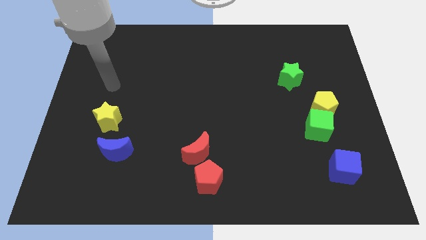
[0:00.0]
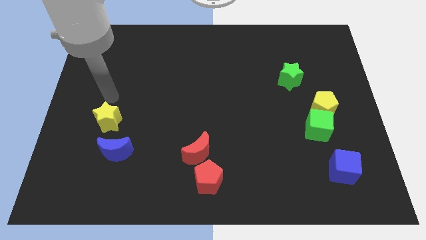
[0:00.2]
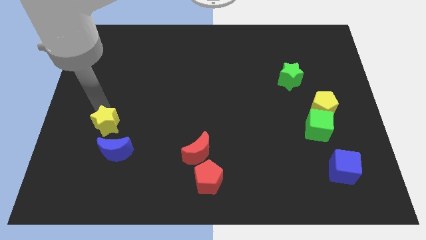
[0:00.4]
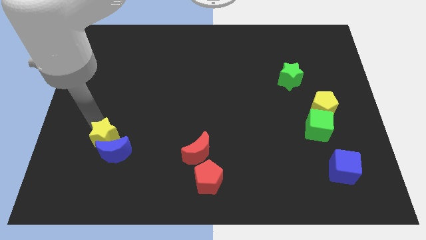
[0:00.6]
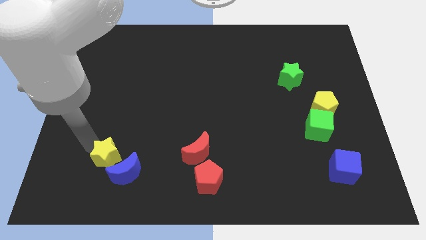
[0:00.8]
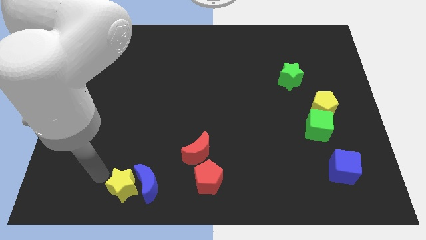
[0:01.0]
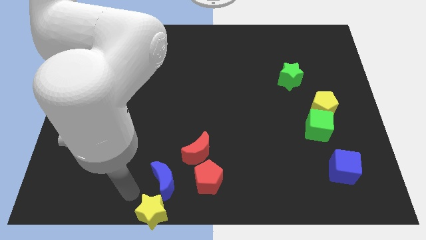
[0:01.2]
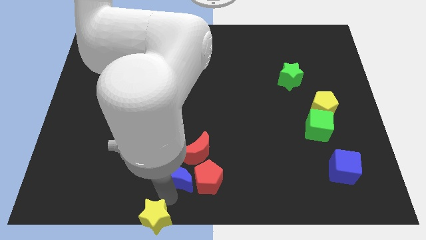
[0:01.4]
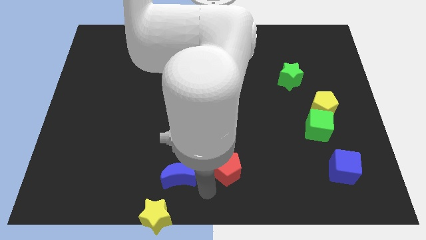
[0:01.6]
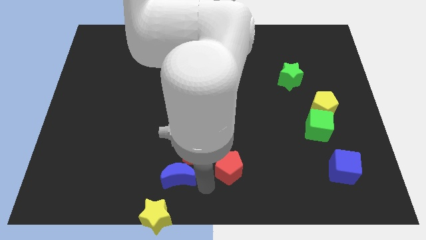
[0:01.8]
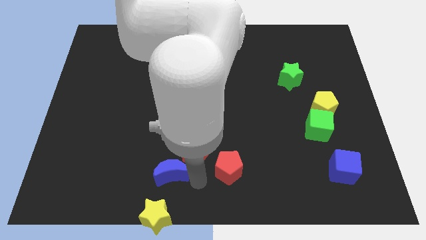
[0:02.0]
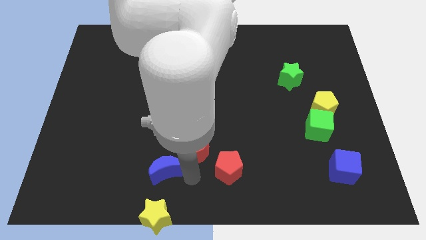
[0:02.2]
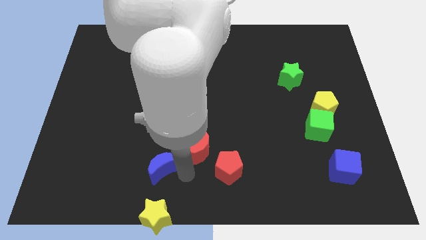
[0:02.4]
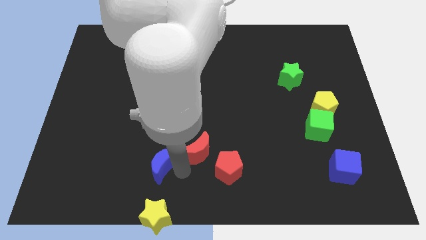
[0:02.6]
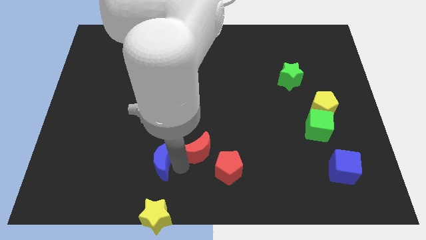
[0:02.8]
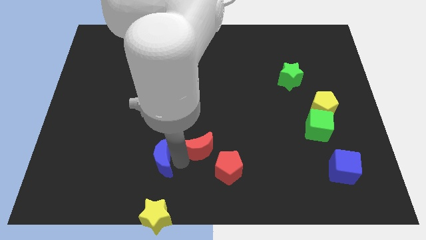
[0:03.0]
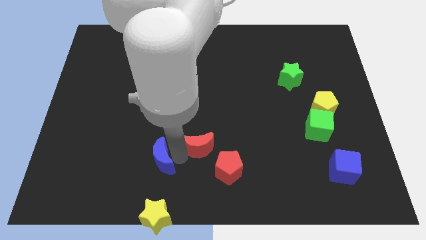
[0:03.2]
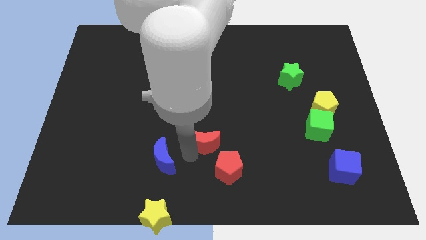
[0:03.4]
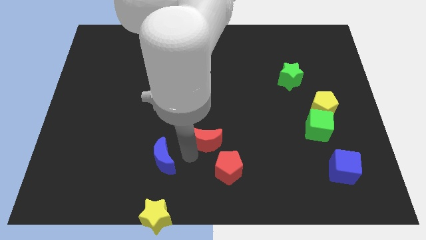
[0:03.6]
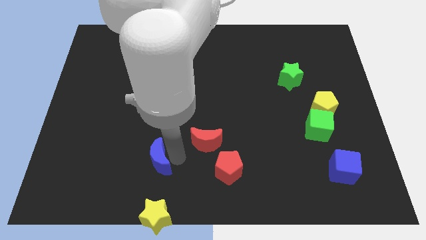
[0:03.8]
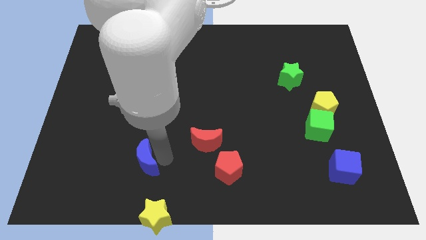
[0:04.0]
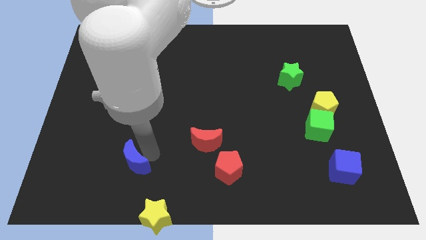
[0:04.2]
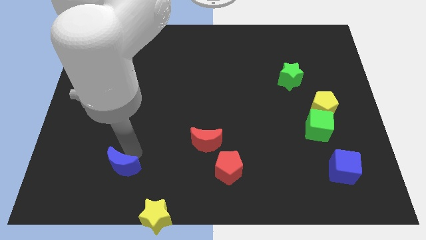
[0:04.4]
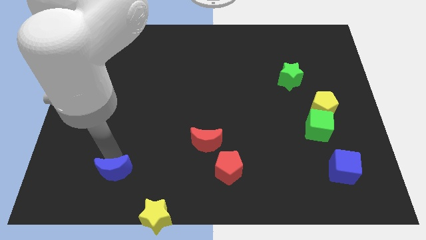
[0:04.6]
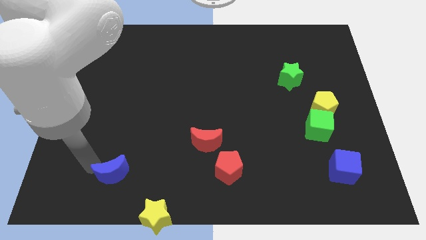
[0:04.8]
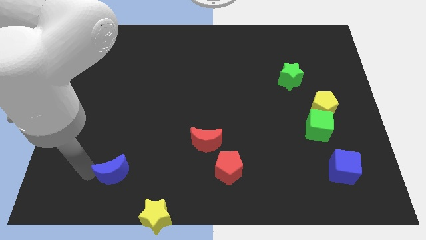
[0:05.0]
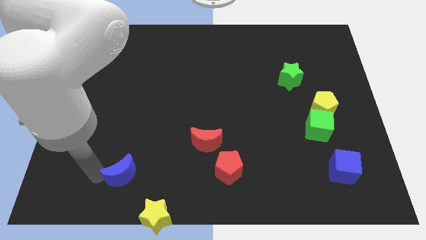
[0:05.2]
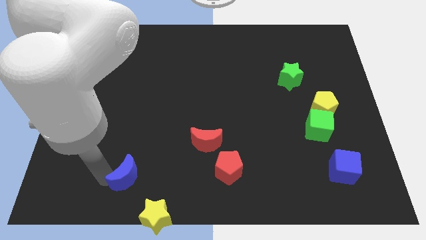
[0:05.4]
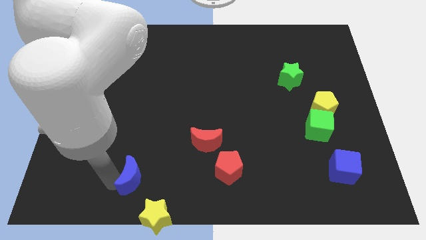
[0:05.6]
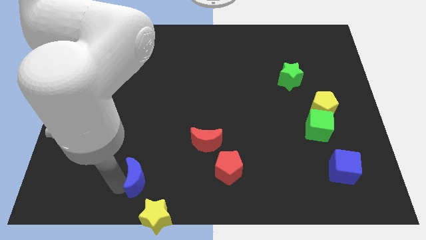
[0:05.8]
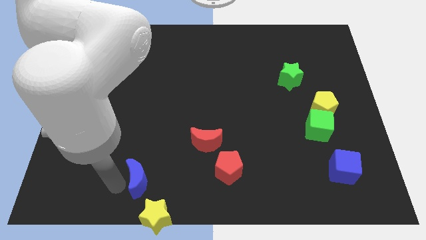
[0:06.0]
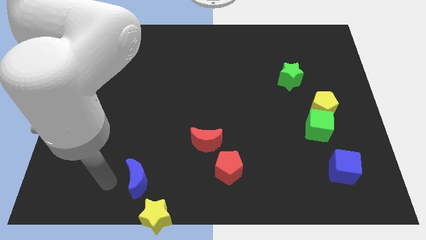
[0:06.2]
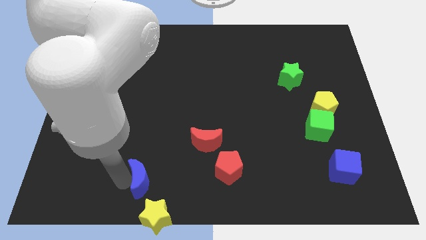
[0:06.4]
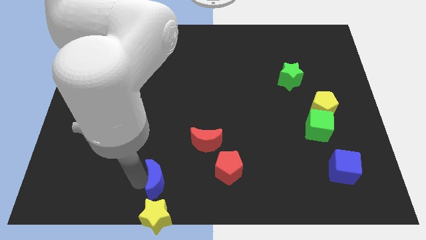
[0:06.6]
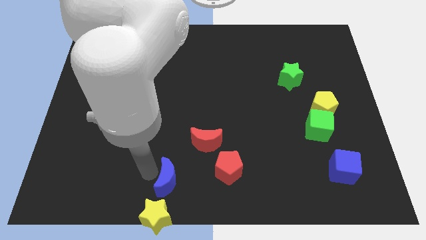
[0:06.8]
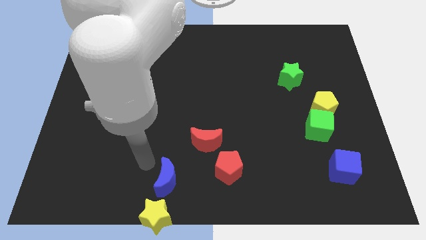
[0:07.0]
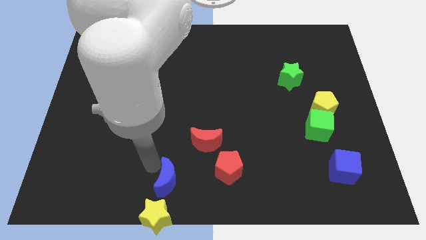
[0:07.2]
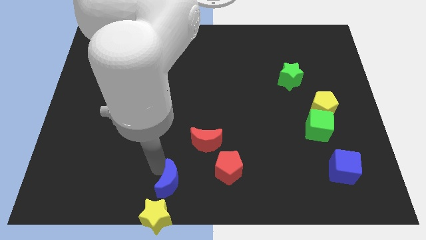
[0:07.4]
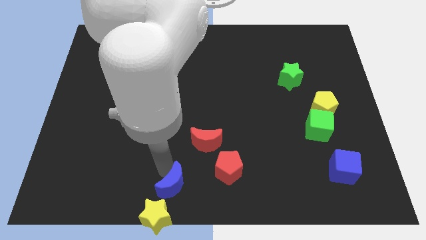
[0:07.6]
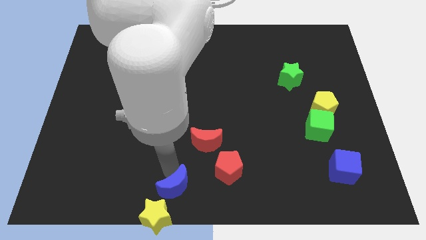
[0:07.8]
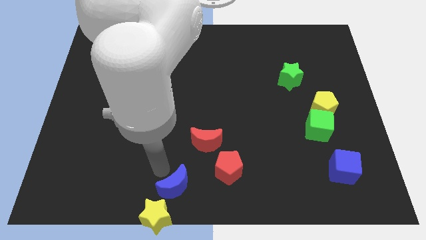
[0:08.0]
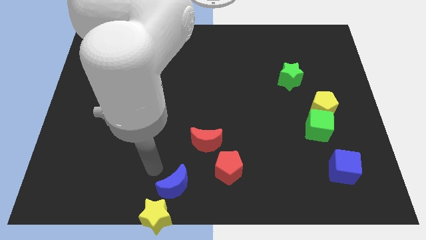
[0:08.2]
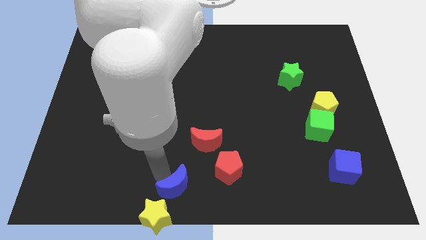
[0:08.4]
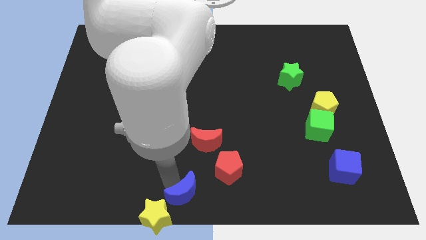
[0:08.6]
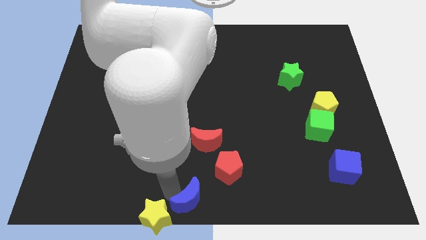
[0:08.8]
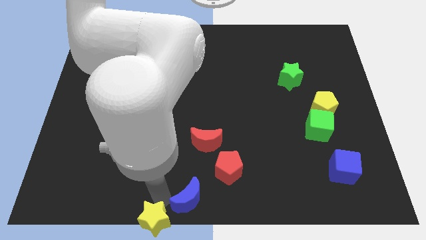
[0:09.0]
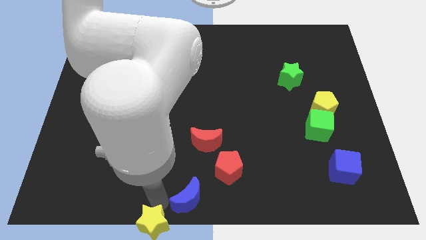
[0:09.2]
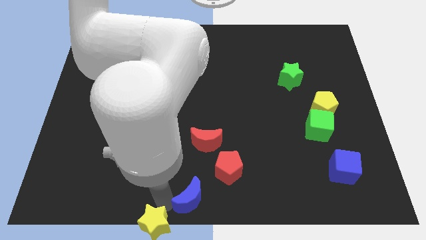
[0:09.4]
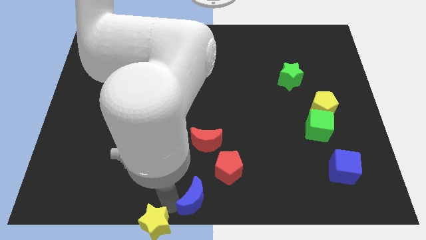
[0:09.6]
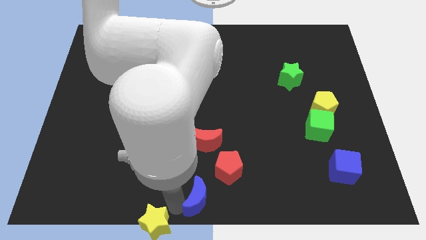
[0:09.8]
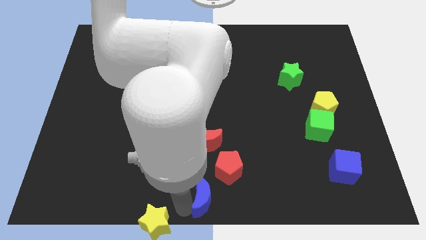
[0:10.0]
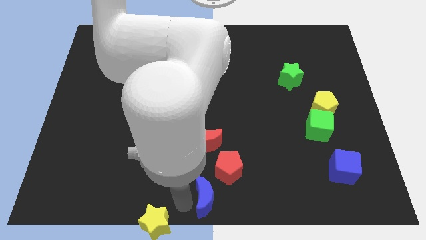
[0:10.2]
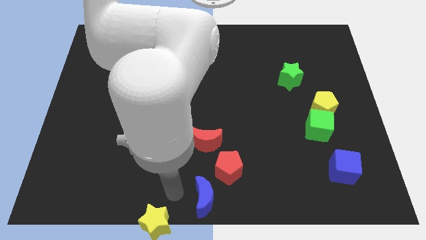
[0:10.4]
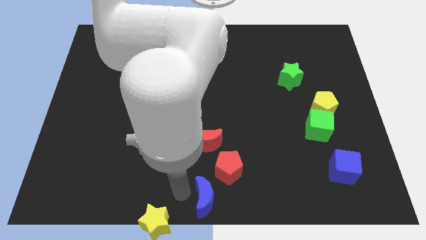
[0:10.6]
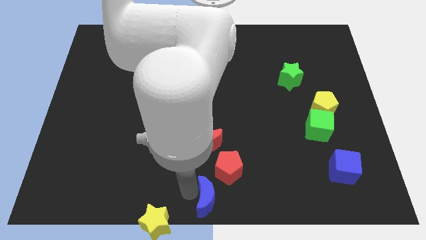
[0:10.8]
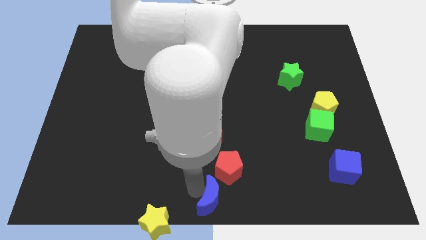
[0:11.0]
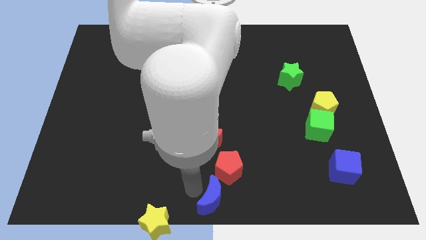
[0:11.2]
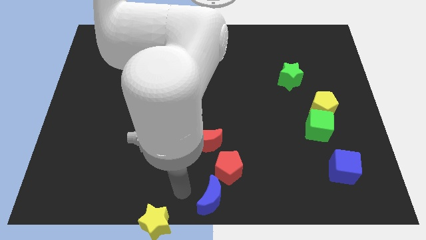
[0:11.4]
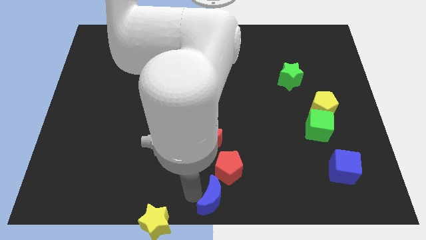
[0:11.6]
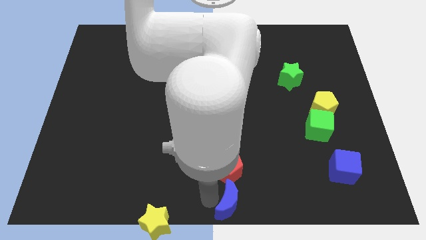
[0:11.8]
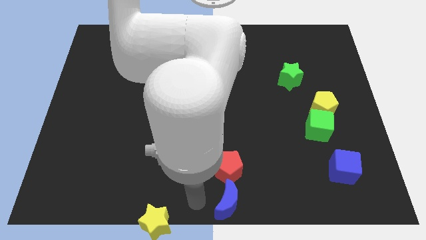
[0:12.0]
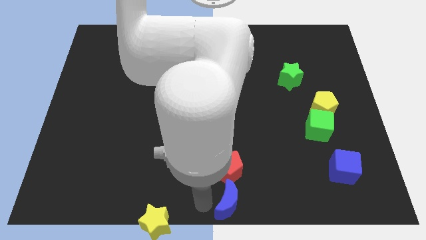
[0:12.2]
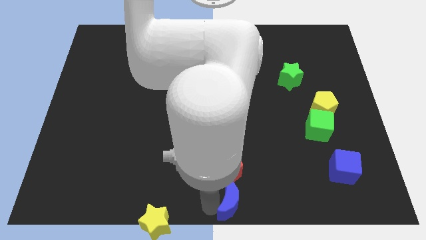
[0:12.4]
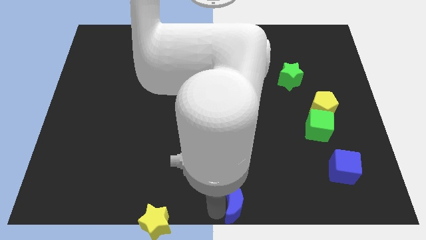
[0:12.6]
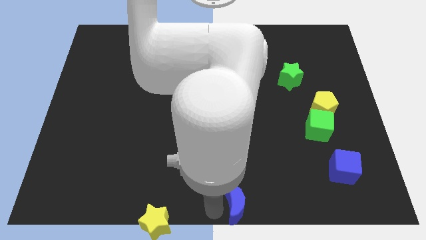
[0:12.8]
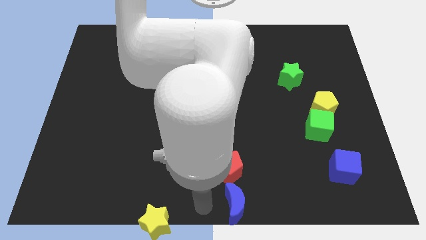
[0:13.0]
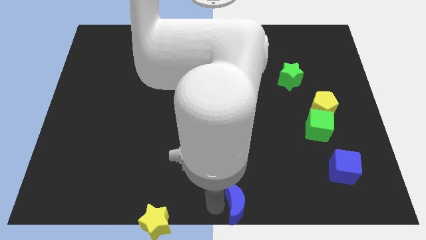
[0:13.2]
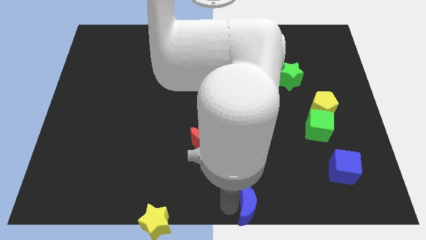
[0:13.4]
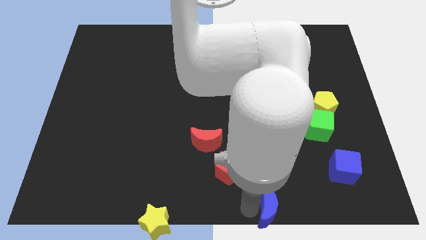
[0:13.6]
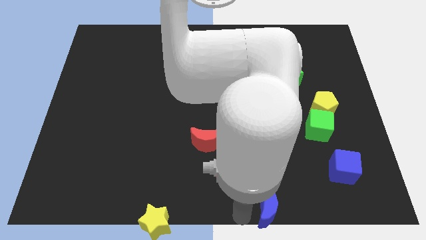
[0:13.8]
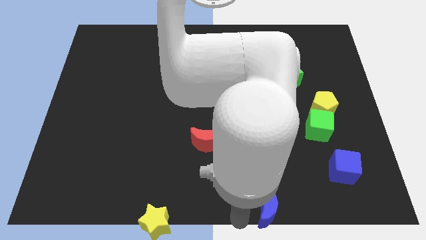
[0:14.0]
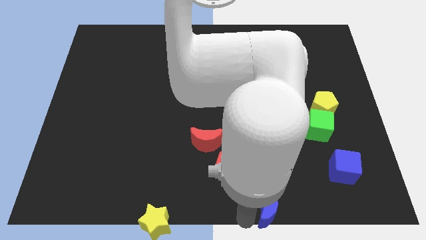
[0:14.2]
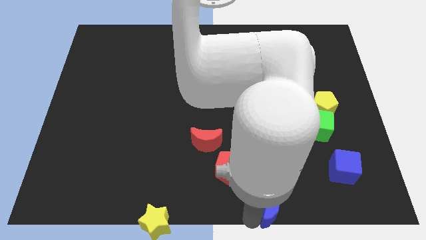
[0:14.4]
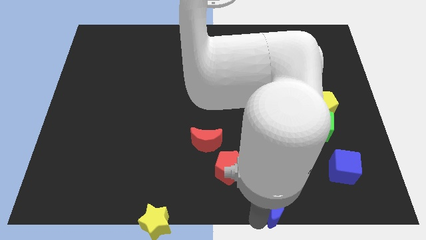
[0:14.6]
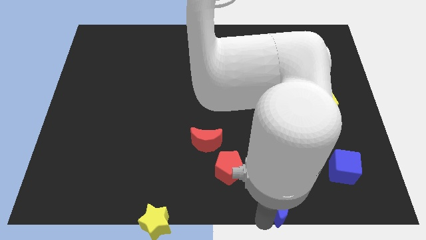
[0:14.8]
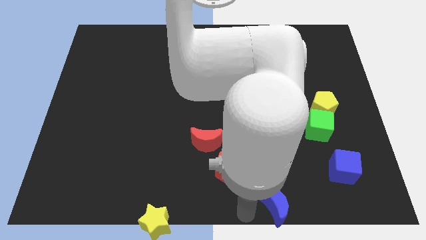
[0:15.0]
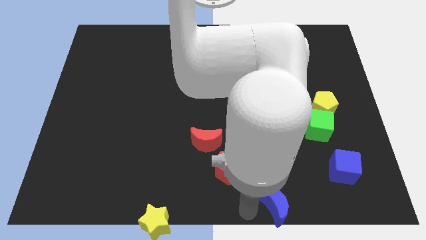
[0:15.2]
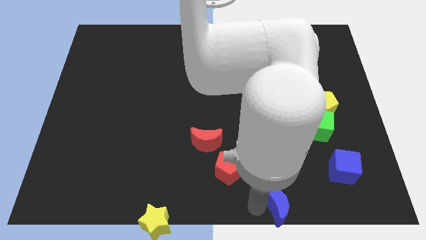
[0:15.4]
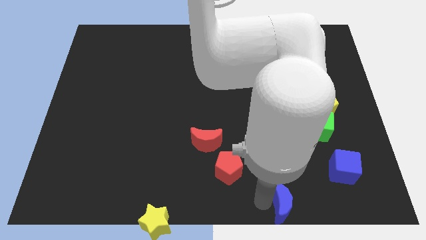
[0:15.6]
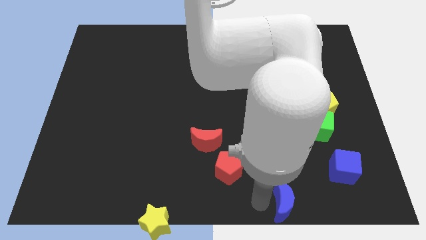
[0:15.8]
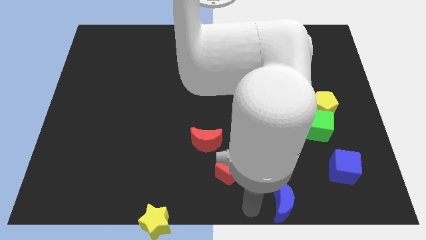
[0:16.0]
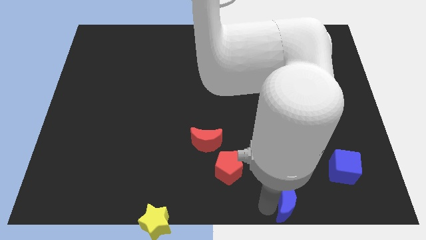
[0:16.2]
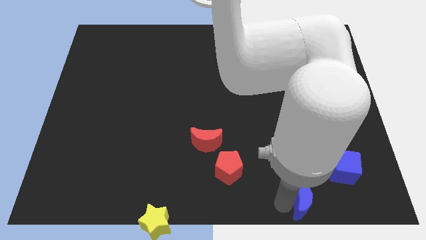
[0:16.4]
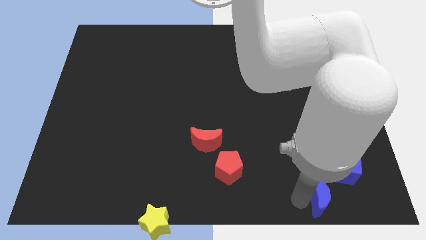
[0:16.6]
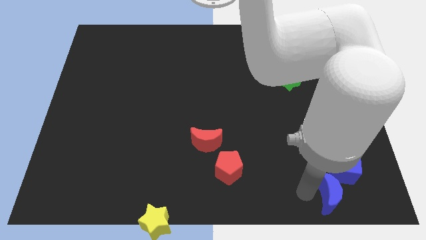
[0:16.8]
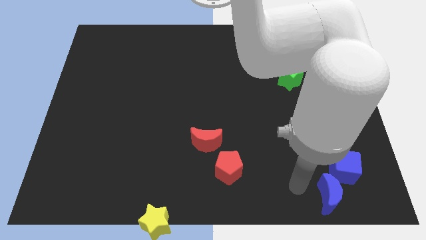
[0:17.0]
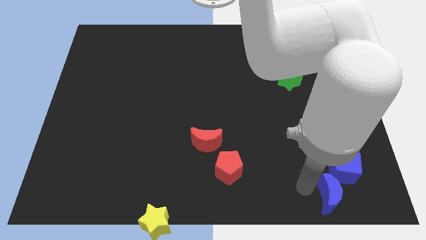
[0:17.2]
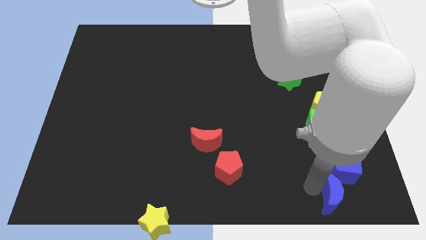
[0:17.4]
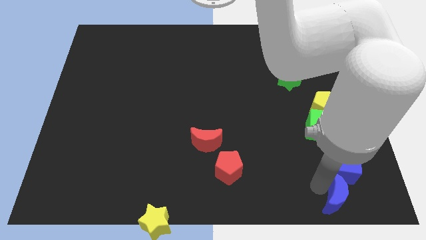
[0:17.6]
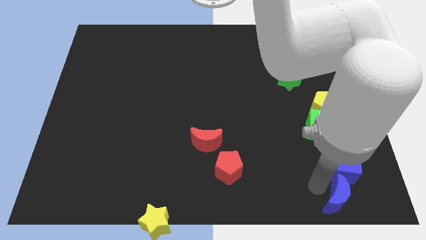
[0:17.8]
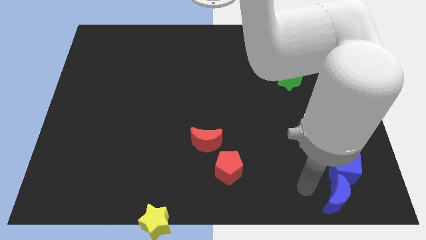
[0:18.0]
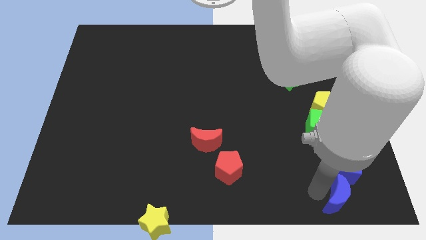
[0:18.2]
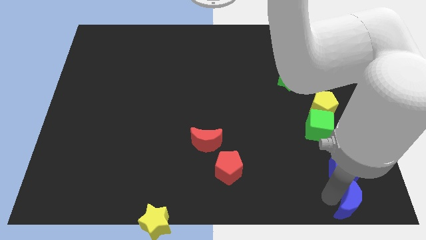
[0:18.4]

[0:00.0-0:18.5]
move the blue moon to the lower right corner
